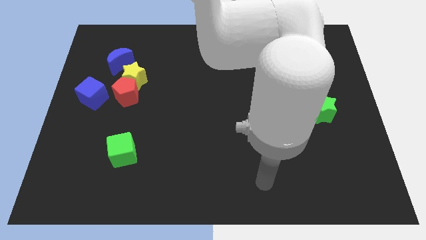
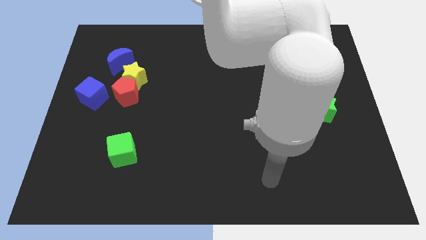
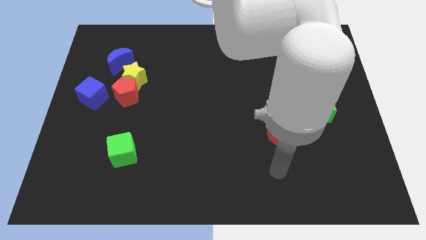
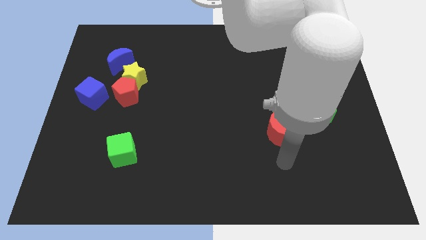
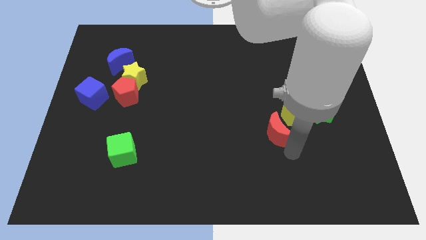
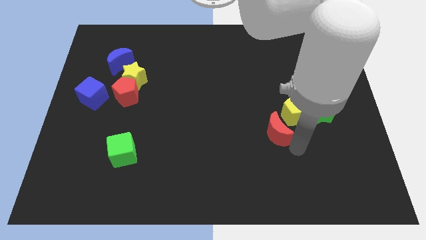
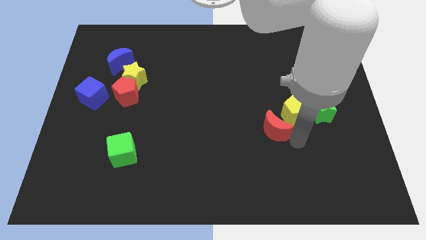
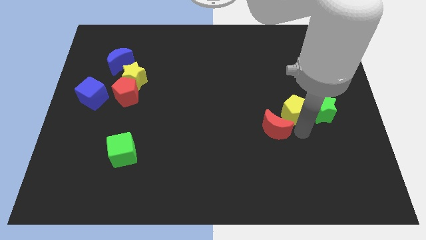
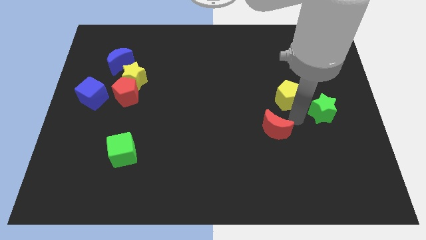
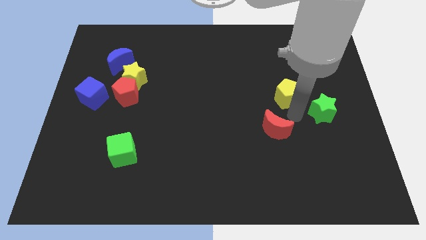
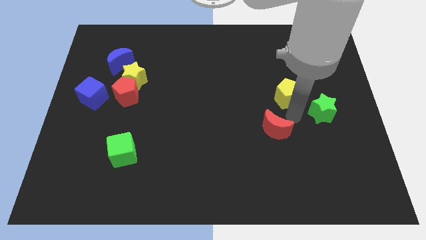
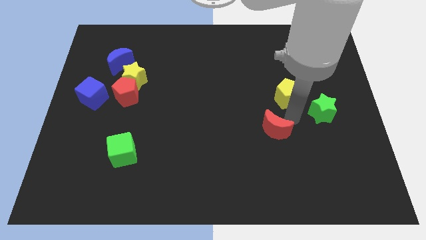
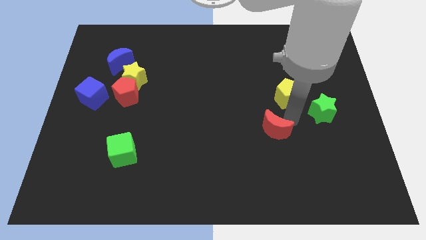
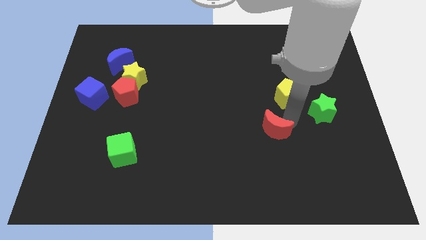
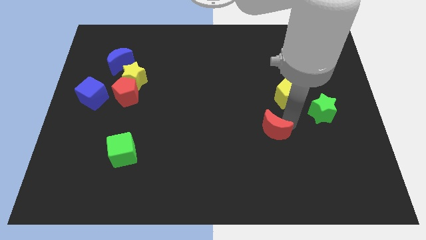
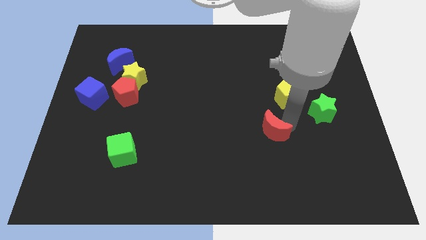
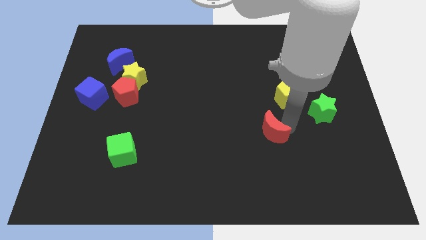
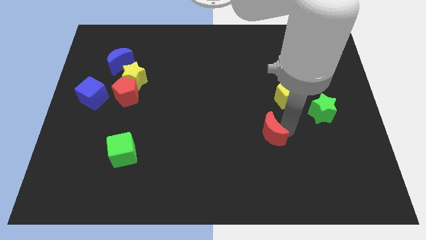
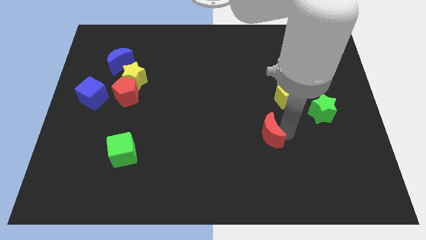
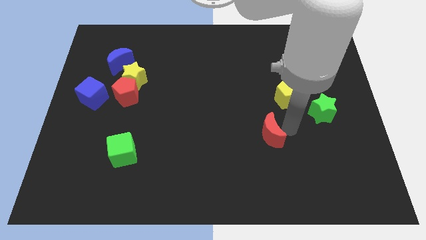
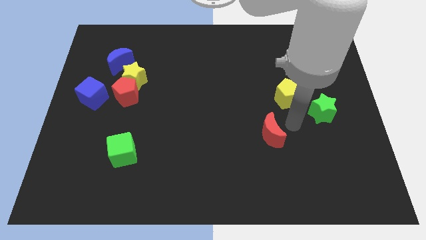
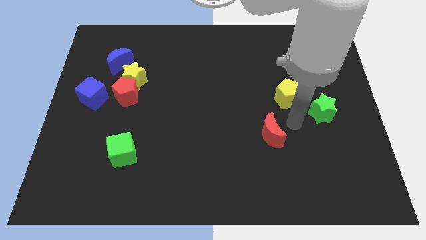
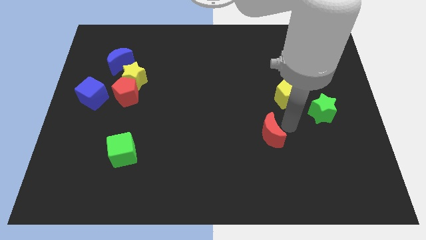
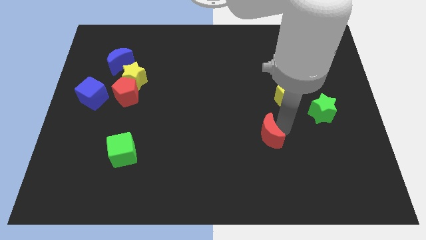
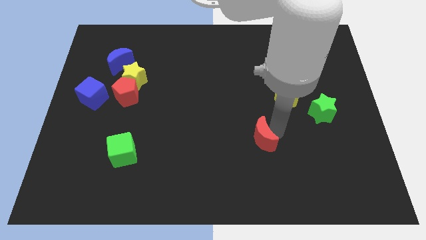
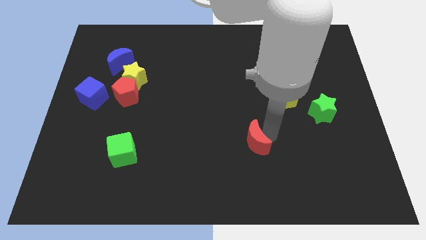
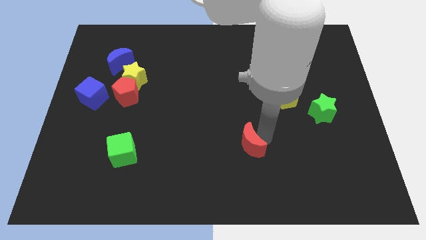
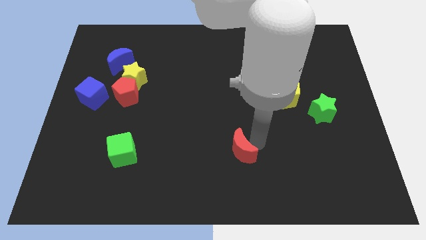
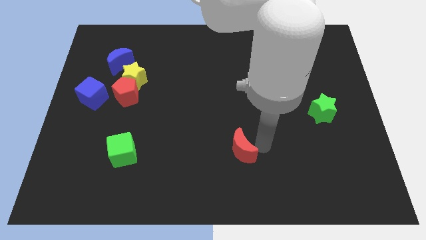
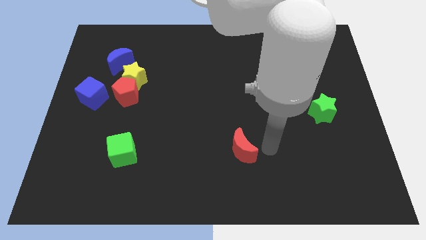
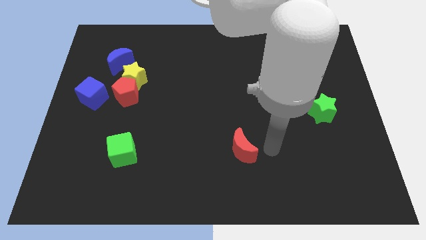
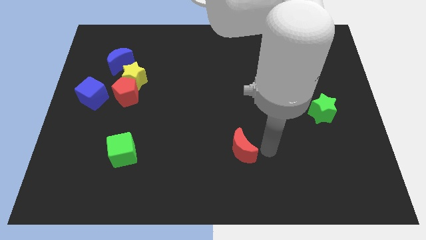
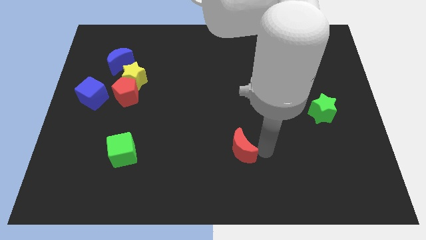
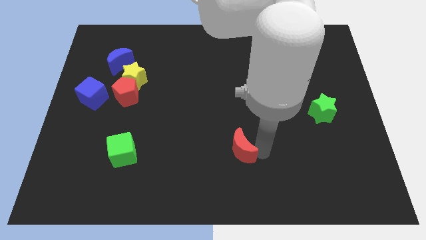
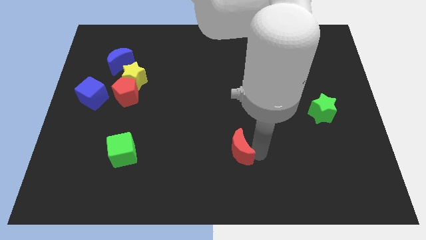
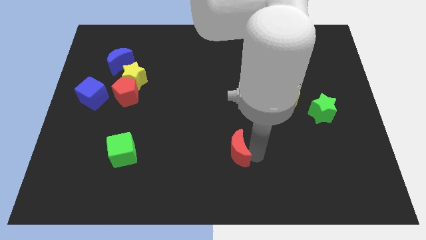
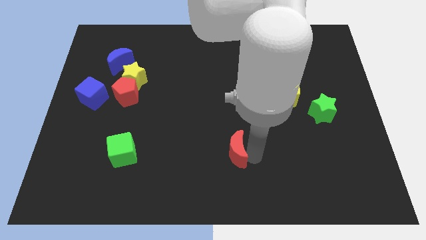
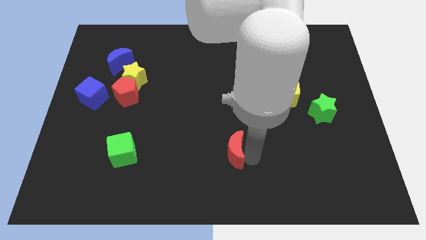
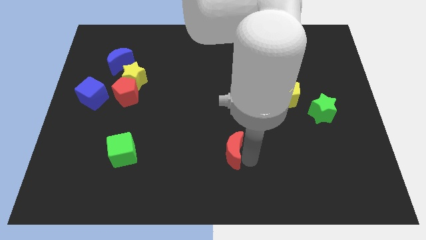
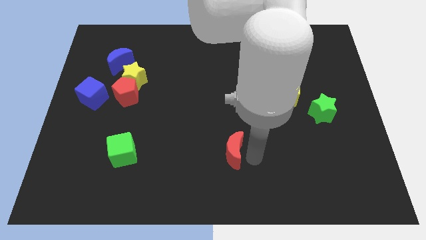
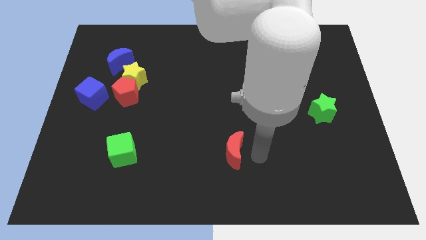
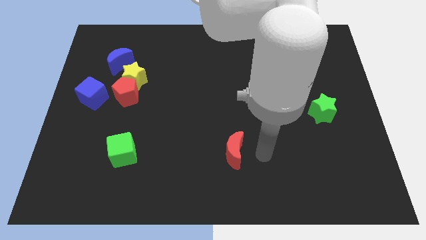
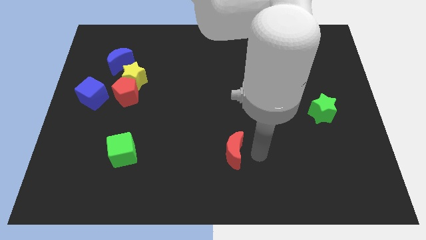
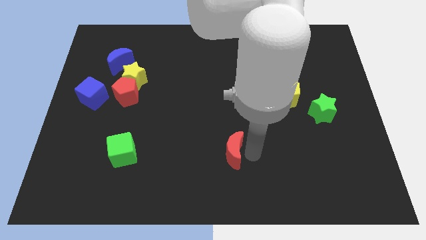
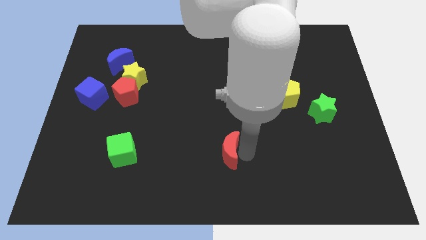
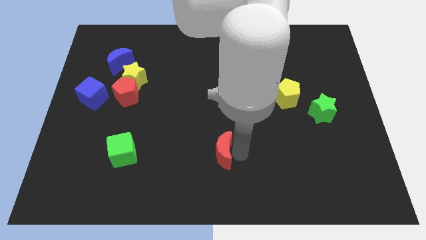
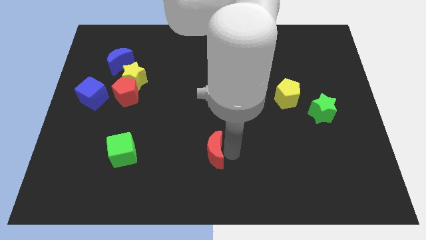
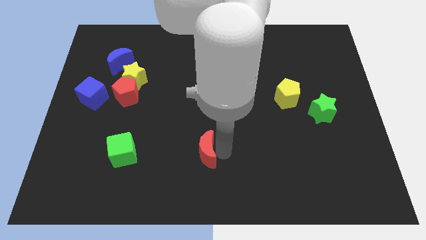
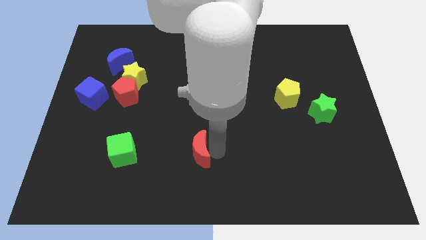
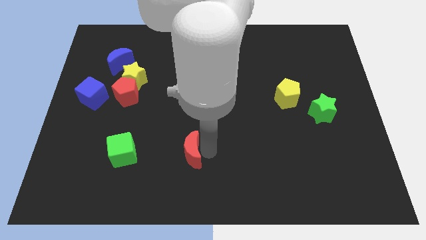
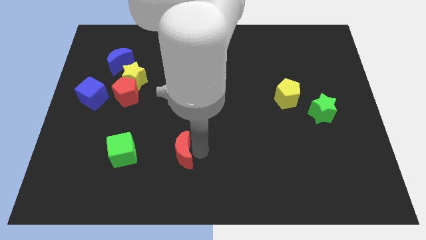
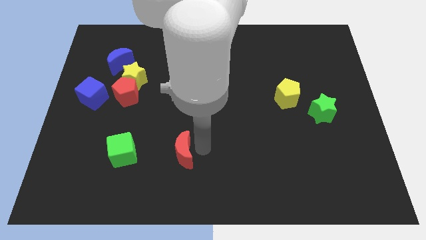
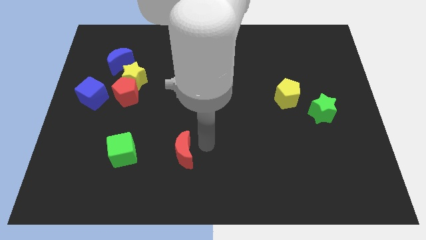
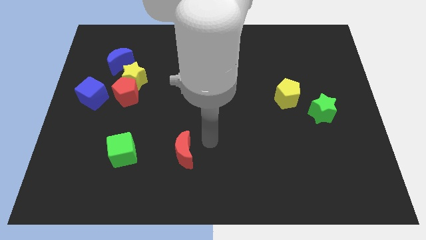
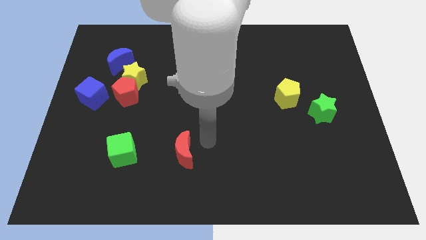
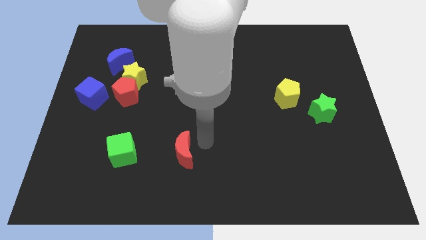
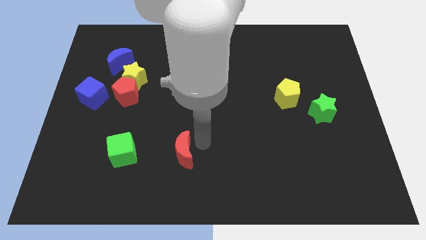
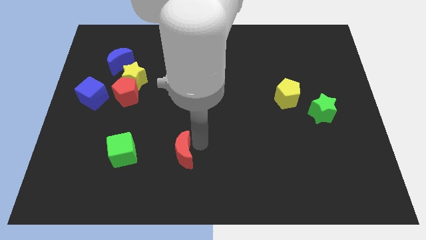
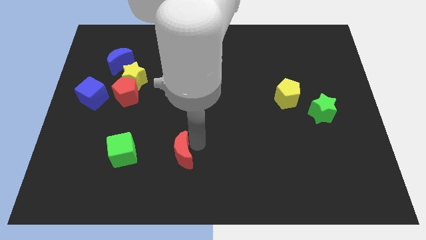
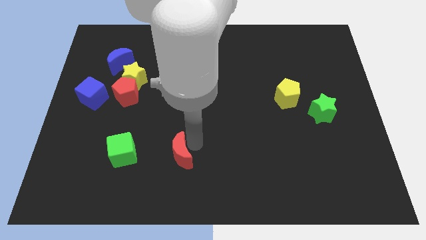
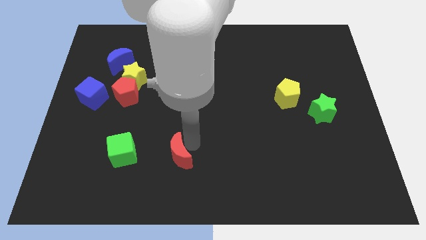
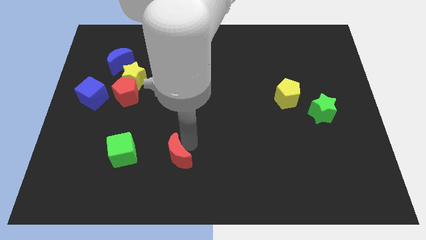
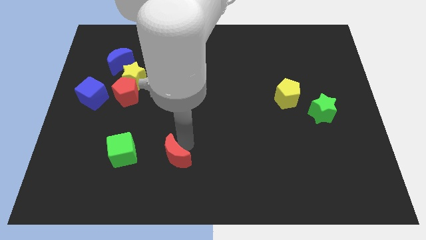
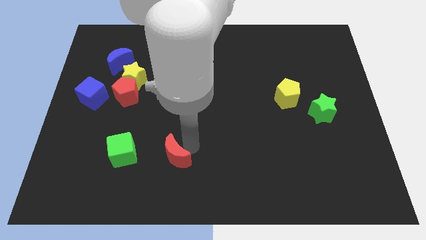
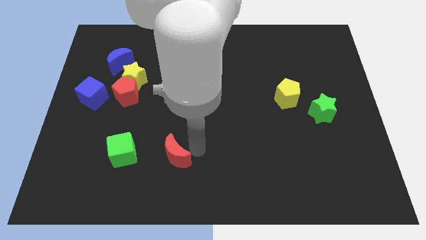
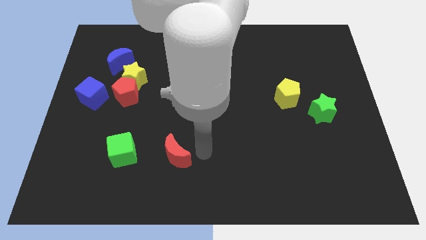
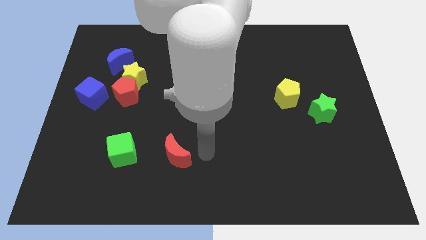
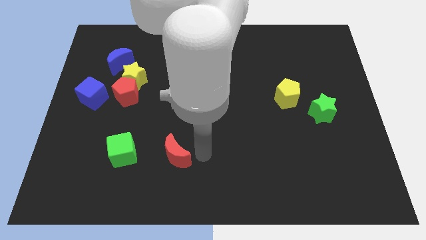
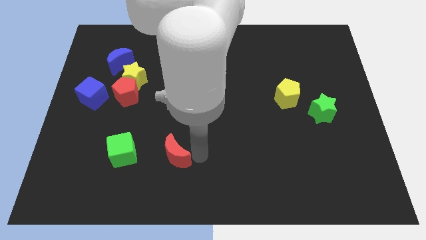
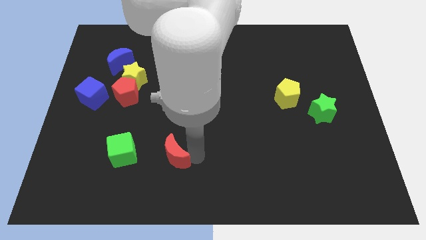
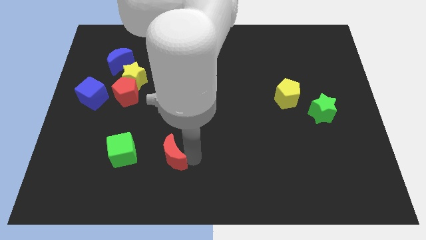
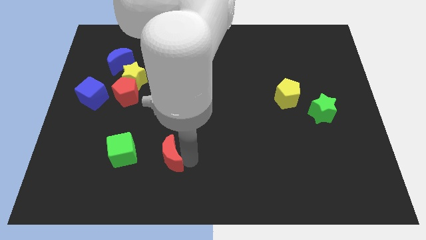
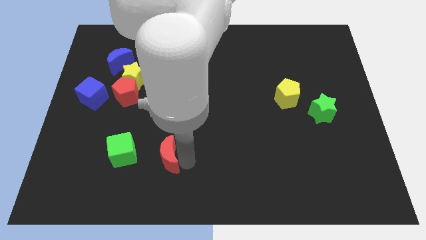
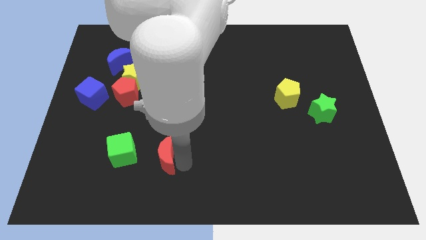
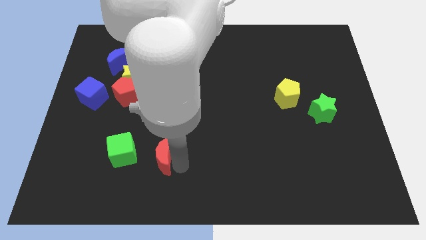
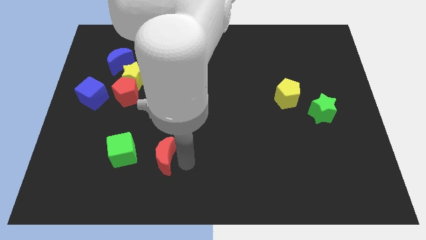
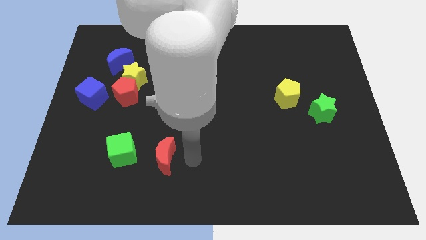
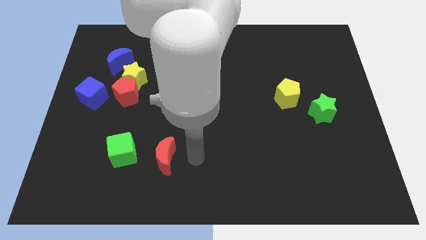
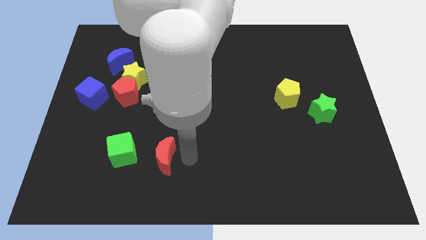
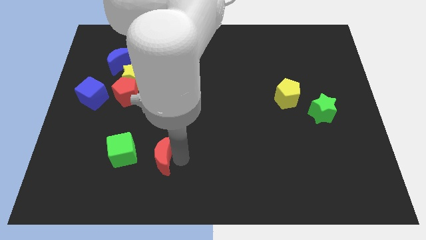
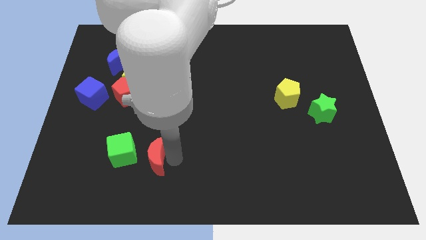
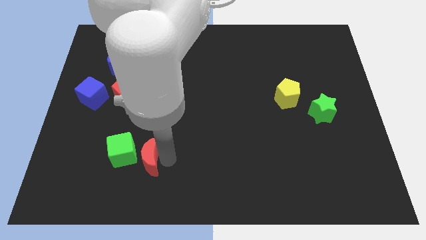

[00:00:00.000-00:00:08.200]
put the red moon next to the green cube
